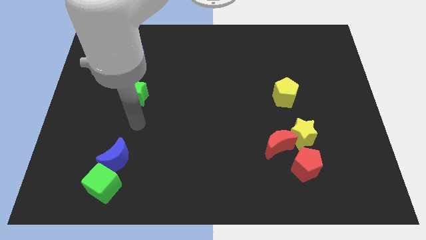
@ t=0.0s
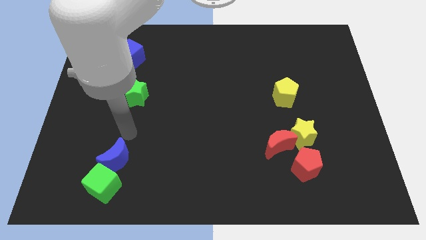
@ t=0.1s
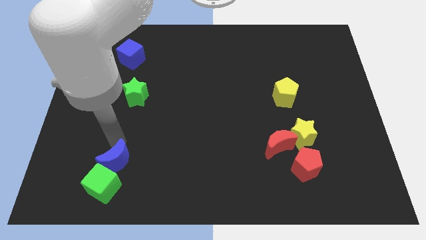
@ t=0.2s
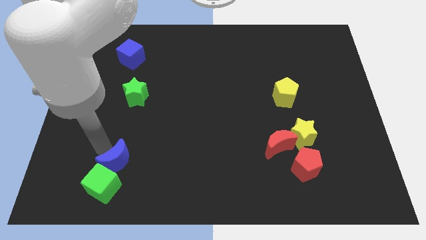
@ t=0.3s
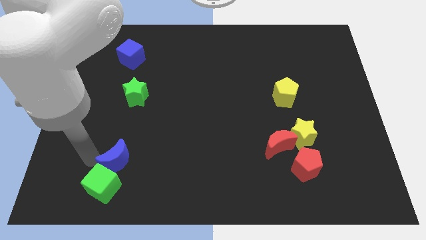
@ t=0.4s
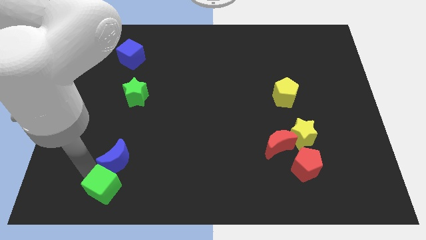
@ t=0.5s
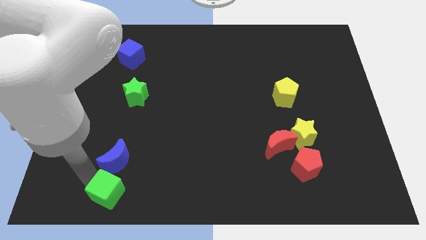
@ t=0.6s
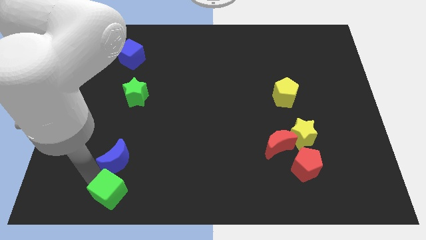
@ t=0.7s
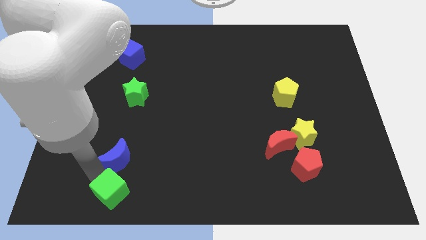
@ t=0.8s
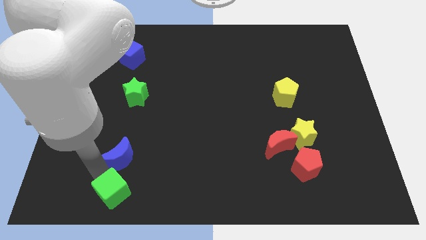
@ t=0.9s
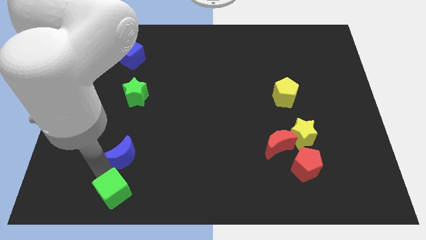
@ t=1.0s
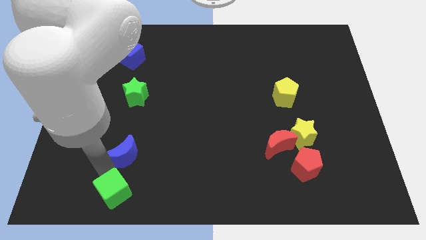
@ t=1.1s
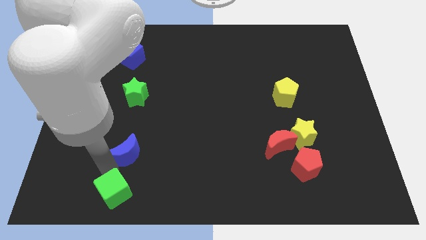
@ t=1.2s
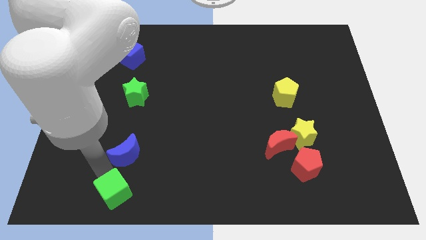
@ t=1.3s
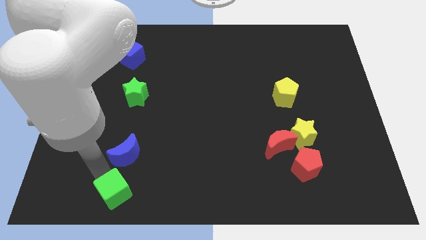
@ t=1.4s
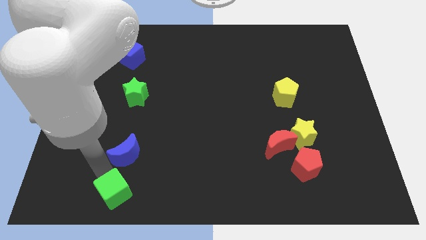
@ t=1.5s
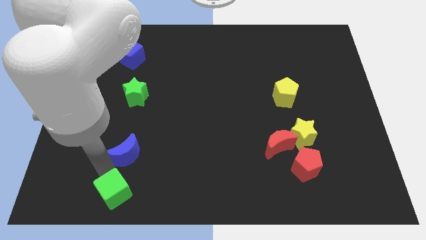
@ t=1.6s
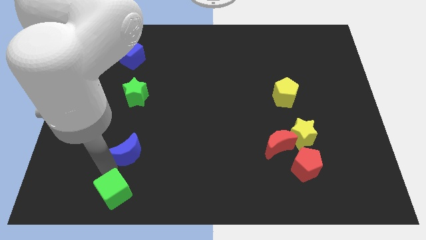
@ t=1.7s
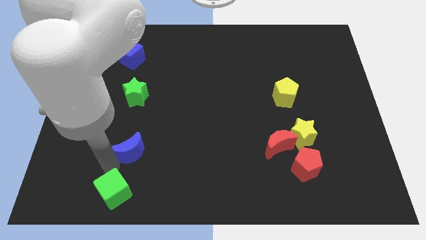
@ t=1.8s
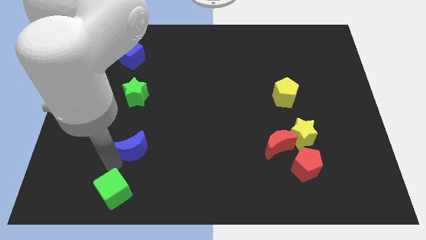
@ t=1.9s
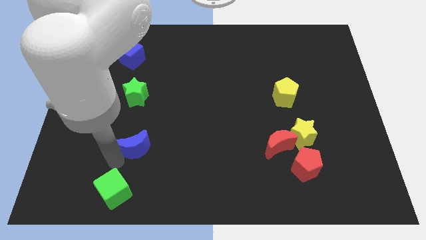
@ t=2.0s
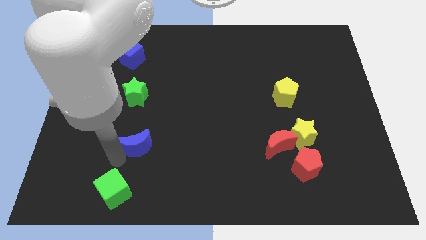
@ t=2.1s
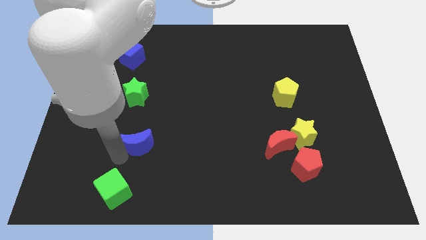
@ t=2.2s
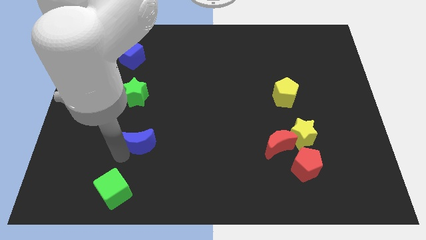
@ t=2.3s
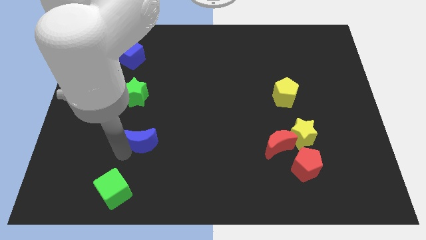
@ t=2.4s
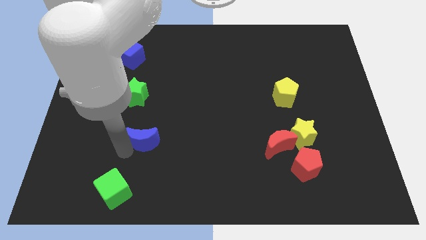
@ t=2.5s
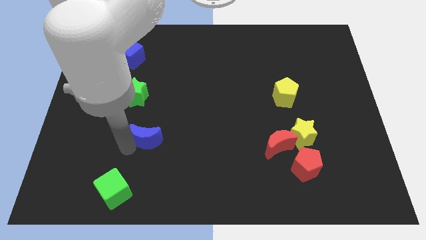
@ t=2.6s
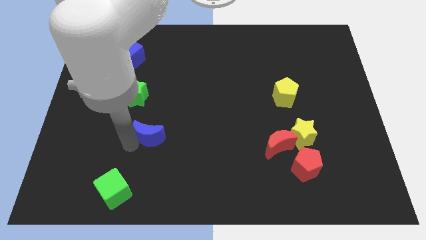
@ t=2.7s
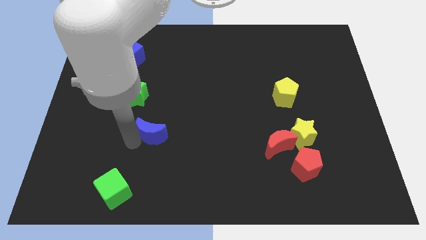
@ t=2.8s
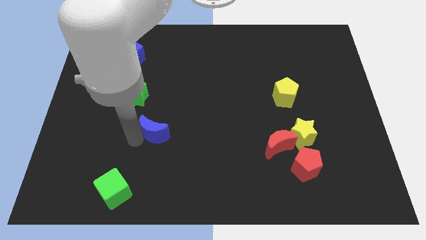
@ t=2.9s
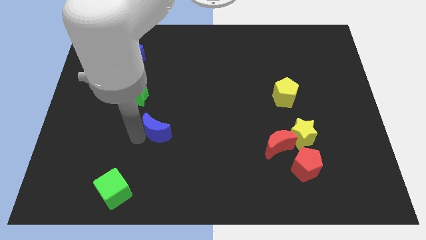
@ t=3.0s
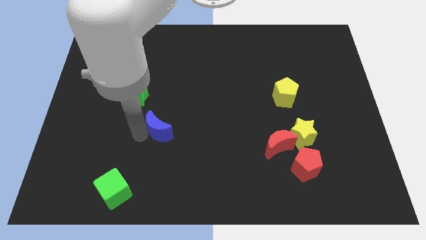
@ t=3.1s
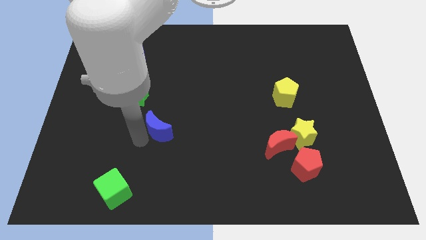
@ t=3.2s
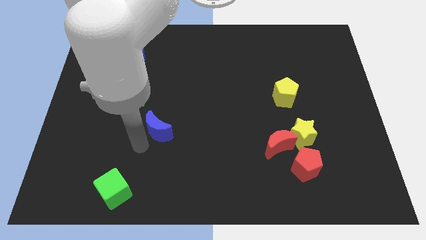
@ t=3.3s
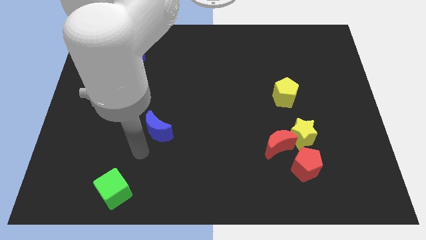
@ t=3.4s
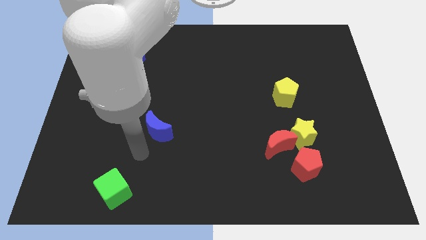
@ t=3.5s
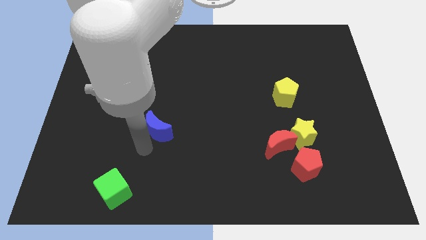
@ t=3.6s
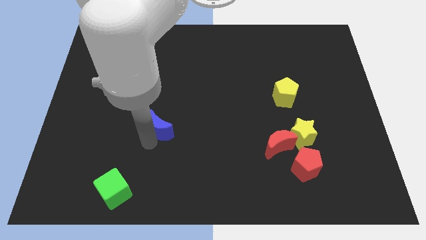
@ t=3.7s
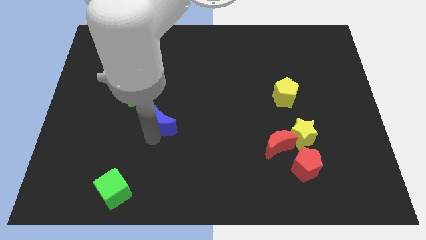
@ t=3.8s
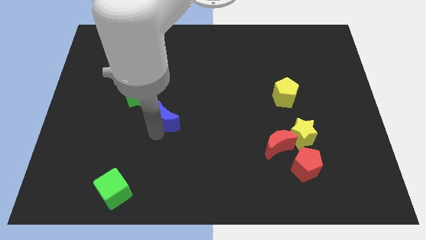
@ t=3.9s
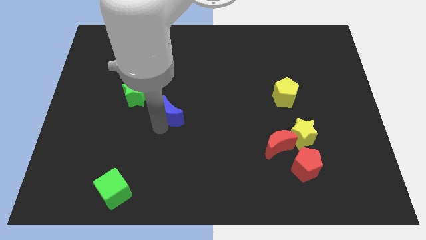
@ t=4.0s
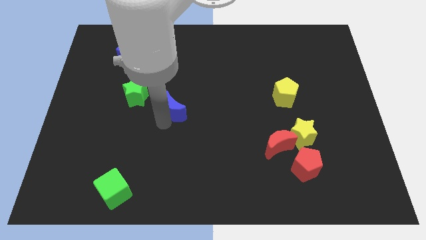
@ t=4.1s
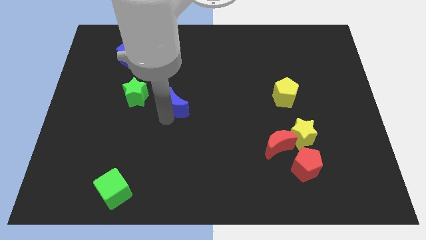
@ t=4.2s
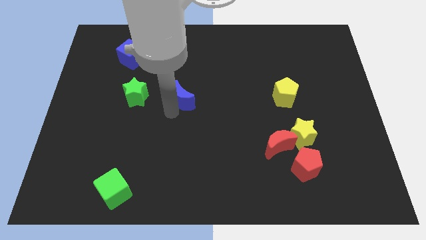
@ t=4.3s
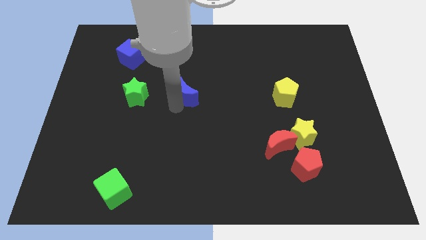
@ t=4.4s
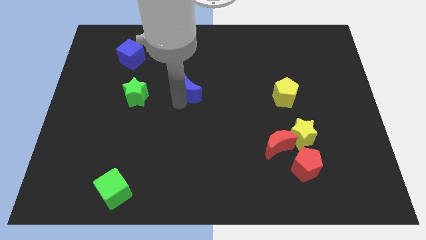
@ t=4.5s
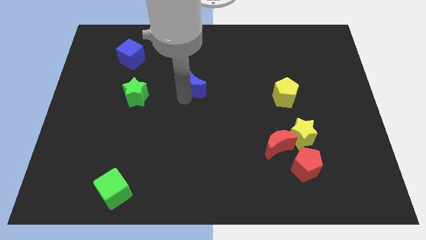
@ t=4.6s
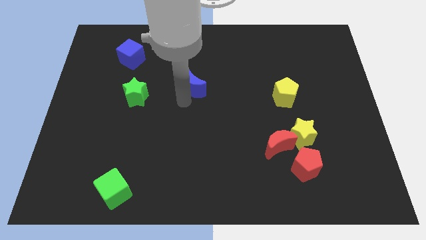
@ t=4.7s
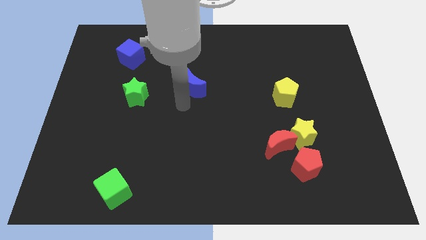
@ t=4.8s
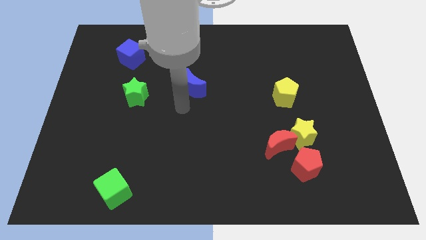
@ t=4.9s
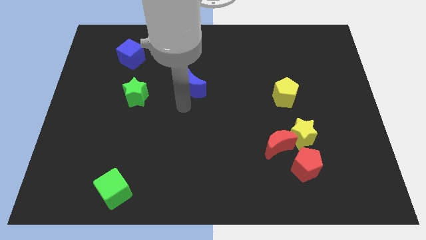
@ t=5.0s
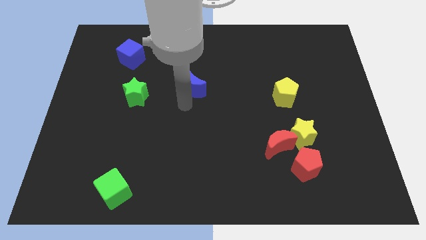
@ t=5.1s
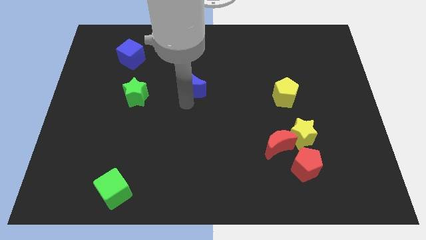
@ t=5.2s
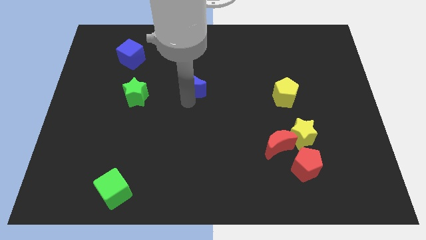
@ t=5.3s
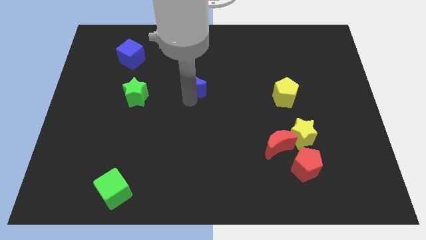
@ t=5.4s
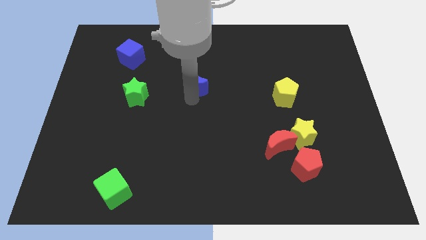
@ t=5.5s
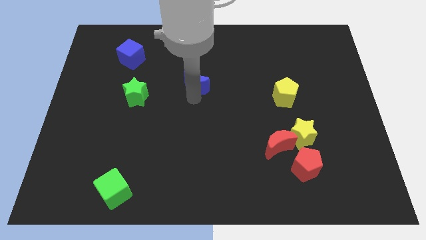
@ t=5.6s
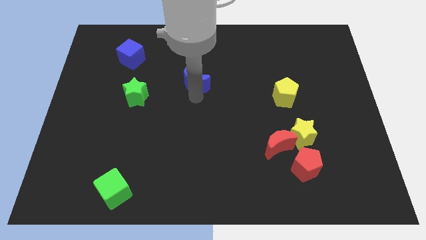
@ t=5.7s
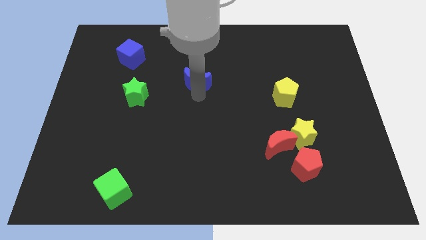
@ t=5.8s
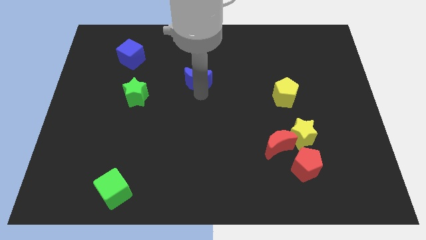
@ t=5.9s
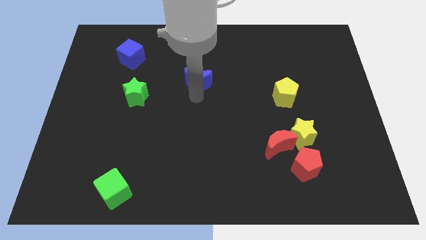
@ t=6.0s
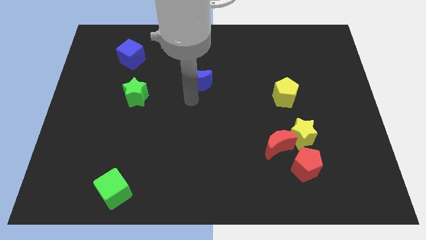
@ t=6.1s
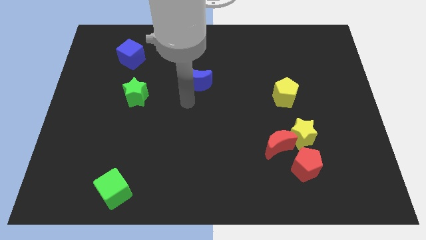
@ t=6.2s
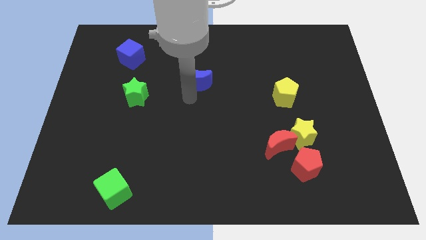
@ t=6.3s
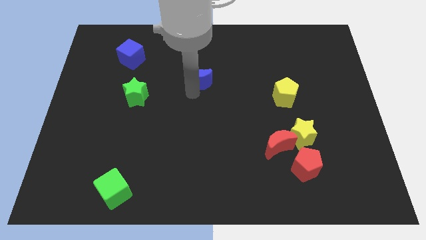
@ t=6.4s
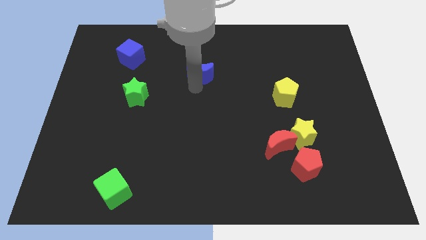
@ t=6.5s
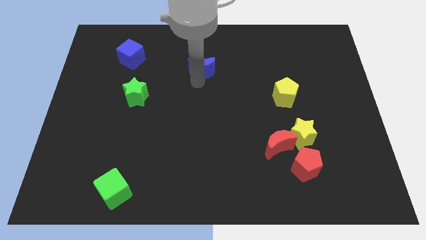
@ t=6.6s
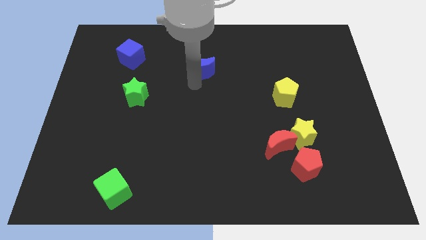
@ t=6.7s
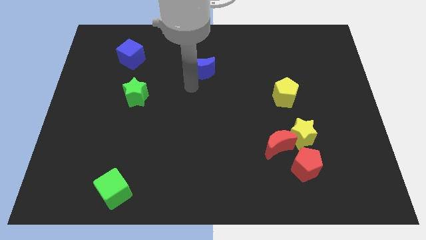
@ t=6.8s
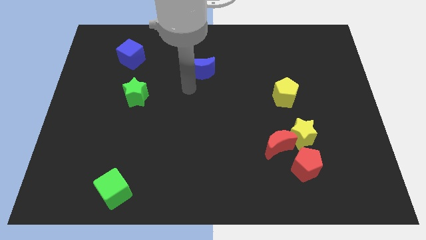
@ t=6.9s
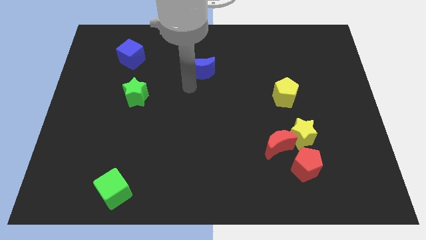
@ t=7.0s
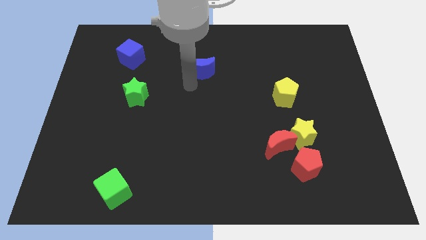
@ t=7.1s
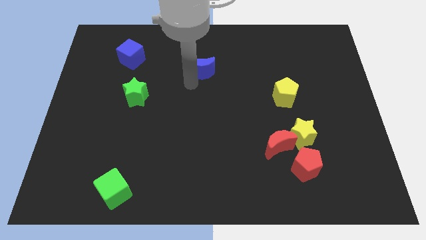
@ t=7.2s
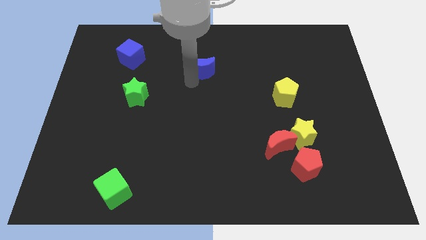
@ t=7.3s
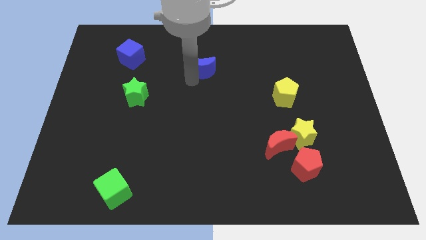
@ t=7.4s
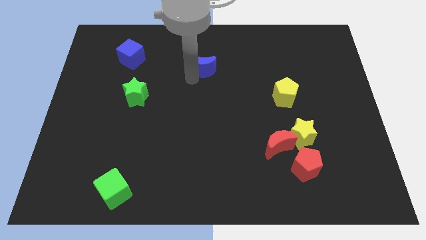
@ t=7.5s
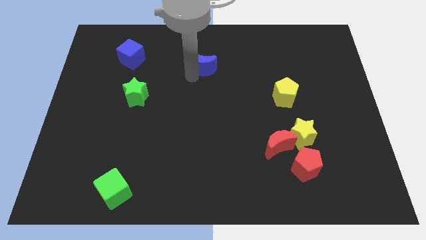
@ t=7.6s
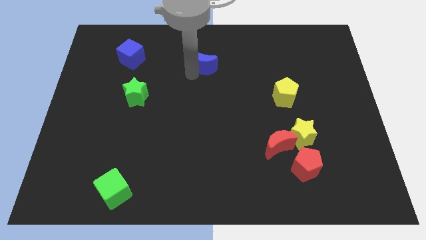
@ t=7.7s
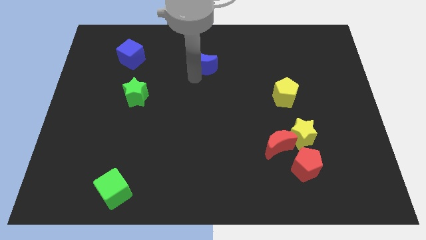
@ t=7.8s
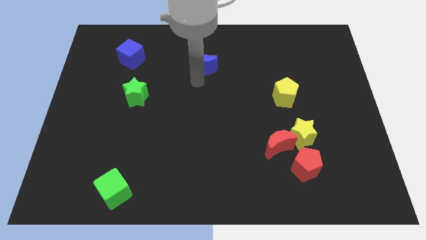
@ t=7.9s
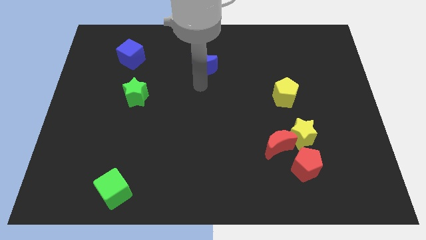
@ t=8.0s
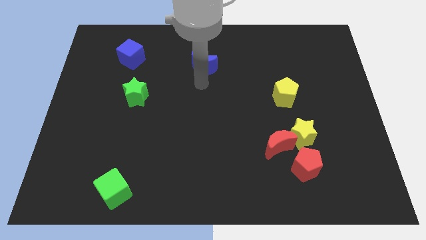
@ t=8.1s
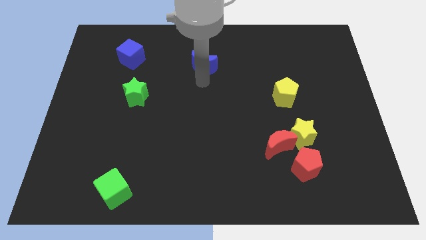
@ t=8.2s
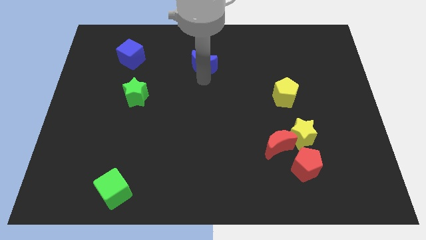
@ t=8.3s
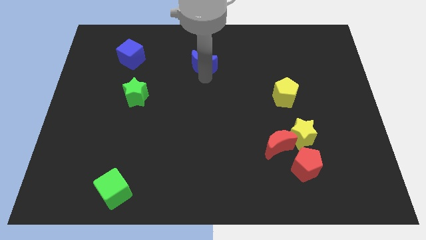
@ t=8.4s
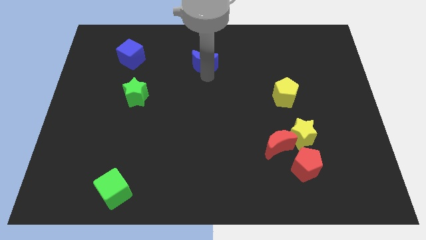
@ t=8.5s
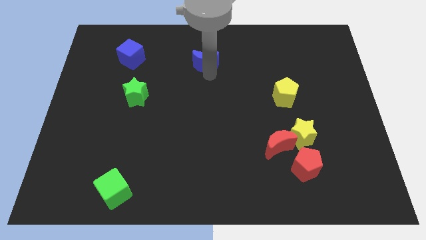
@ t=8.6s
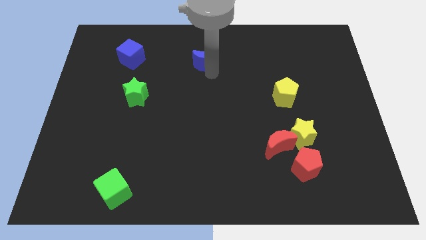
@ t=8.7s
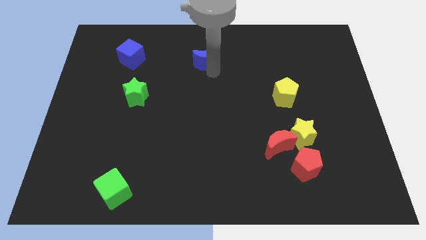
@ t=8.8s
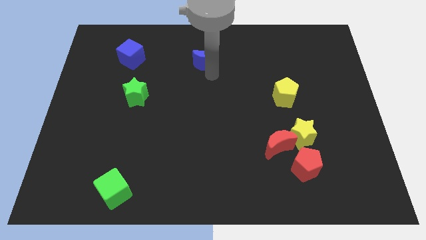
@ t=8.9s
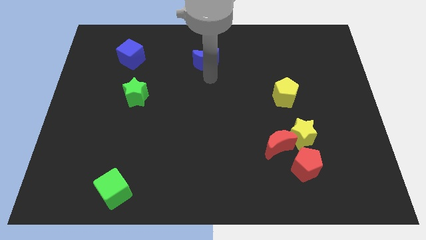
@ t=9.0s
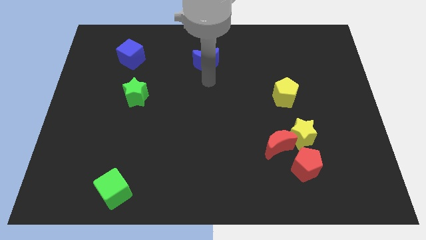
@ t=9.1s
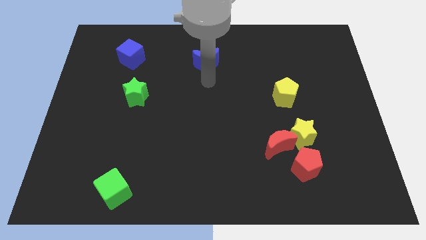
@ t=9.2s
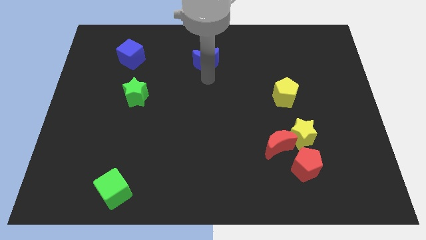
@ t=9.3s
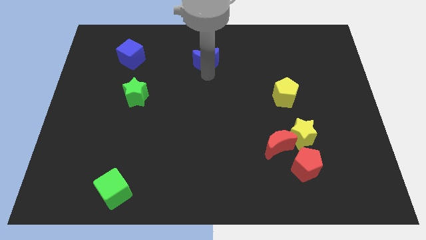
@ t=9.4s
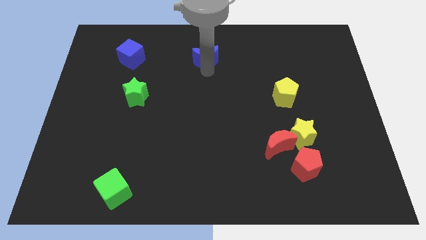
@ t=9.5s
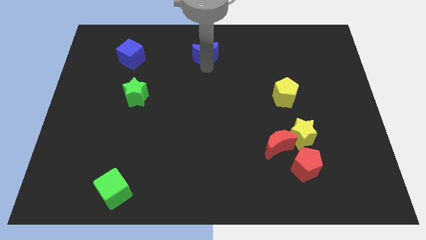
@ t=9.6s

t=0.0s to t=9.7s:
put the blue moon to the towards your base
